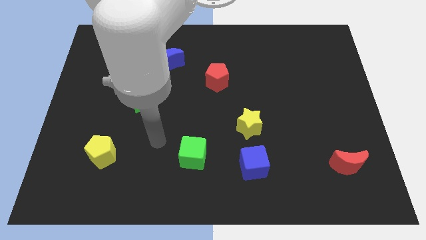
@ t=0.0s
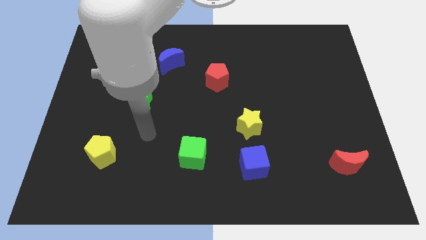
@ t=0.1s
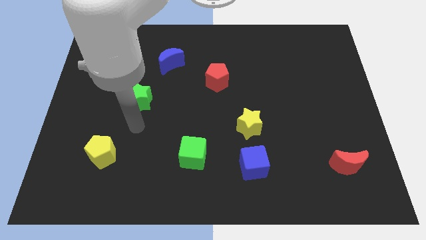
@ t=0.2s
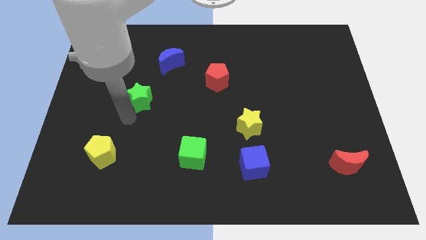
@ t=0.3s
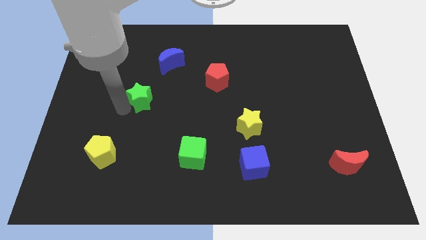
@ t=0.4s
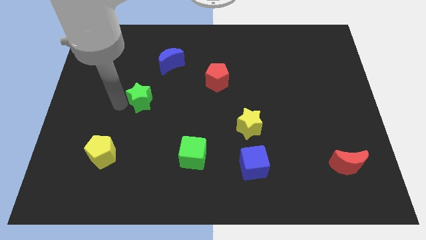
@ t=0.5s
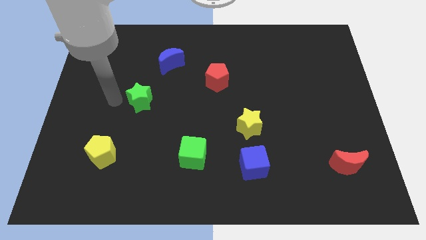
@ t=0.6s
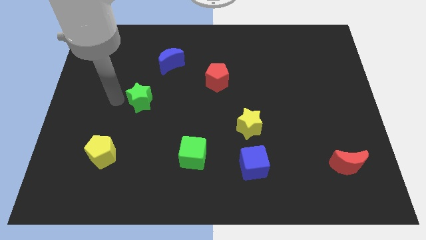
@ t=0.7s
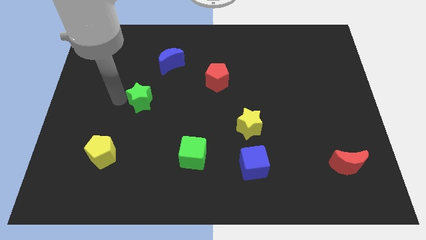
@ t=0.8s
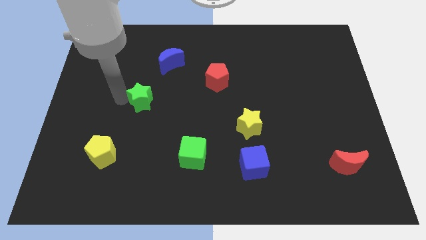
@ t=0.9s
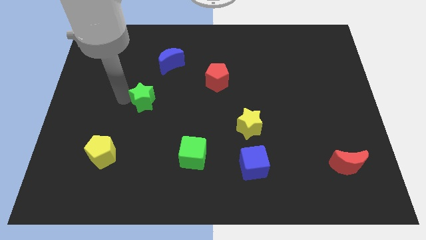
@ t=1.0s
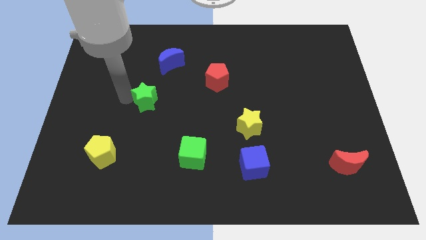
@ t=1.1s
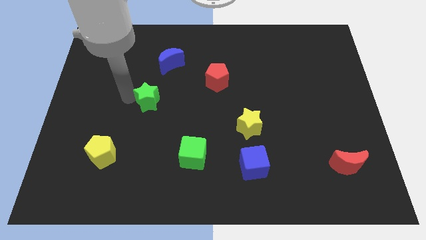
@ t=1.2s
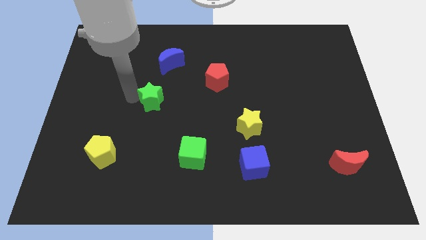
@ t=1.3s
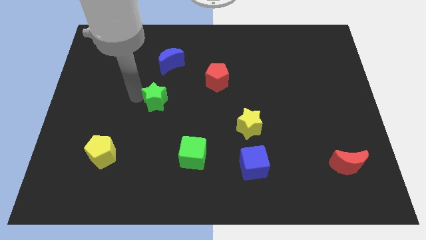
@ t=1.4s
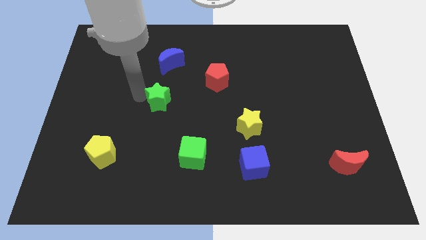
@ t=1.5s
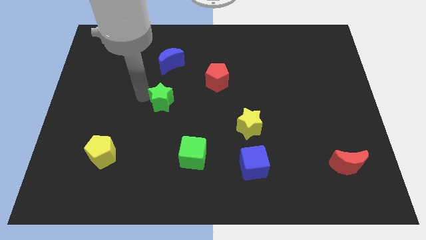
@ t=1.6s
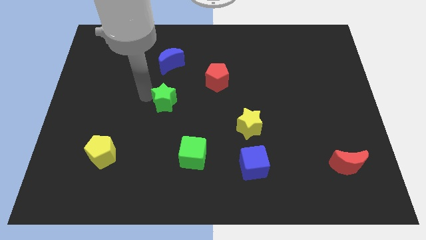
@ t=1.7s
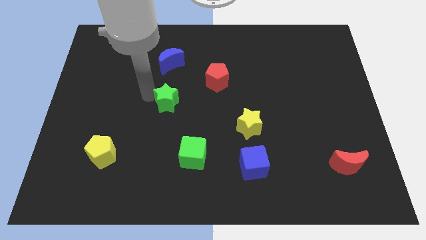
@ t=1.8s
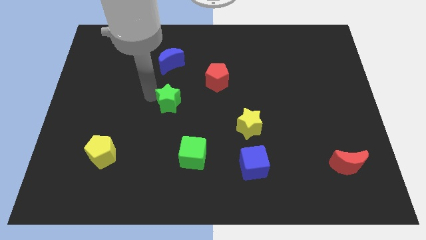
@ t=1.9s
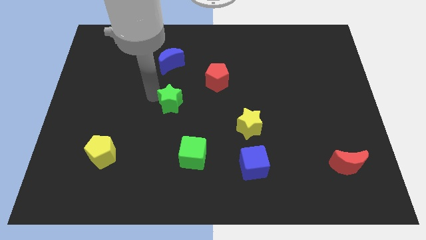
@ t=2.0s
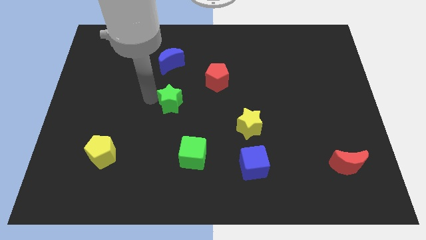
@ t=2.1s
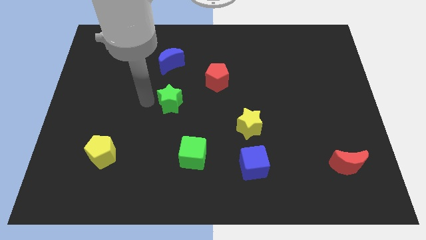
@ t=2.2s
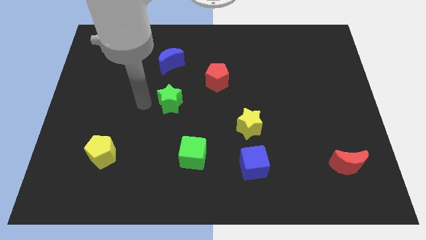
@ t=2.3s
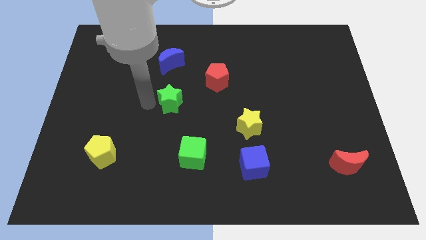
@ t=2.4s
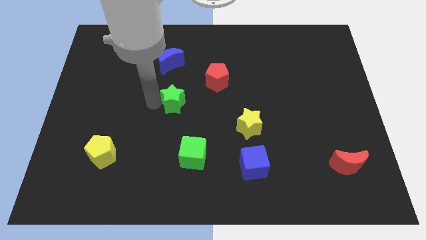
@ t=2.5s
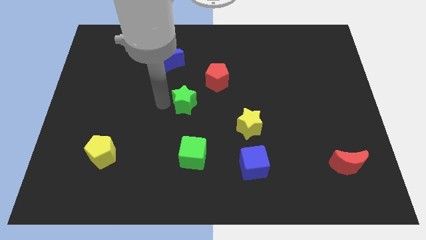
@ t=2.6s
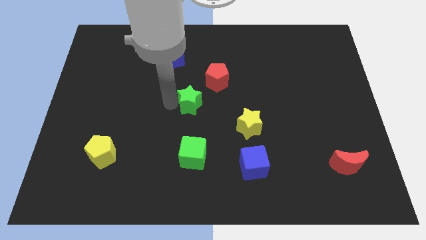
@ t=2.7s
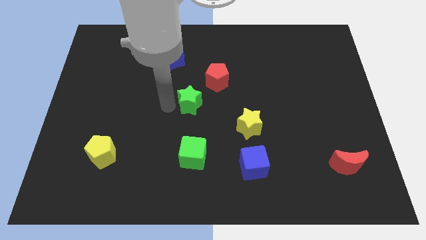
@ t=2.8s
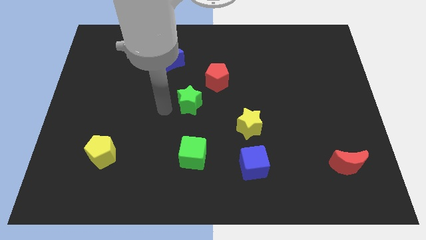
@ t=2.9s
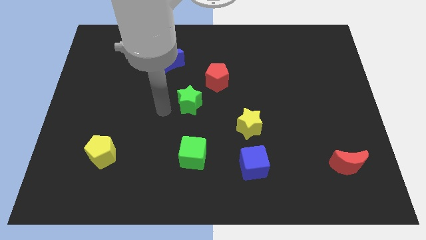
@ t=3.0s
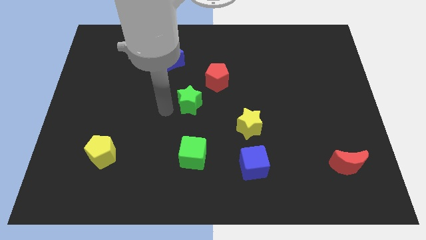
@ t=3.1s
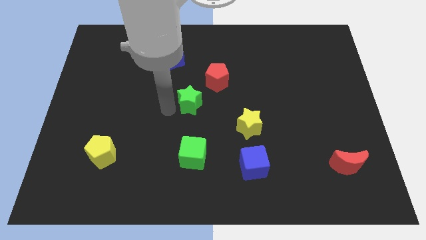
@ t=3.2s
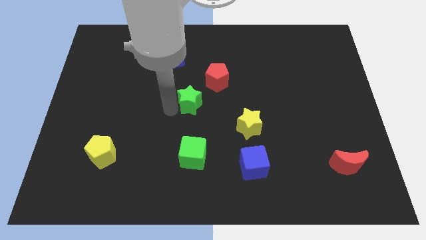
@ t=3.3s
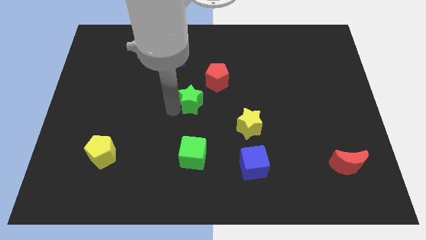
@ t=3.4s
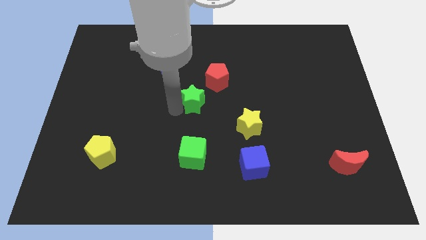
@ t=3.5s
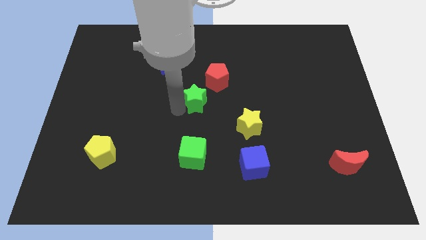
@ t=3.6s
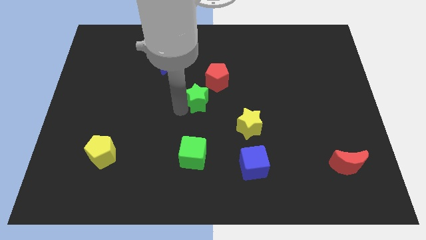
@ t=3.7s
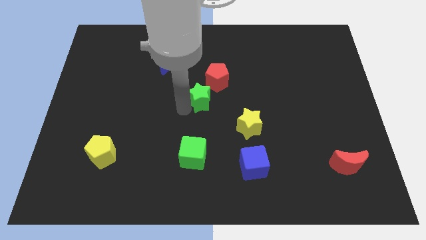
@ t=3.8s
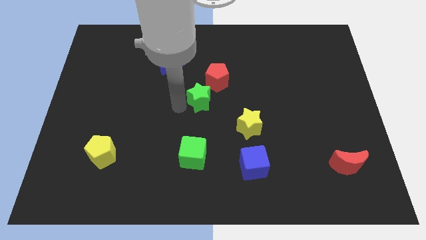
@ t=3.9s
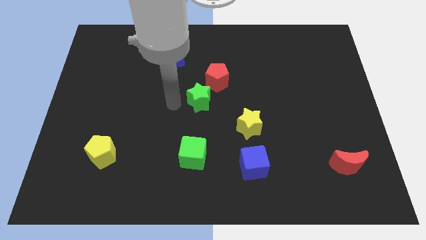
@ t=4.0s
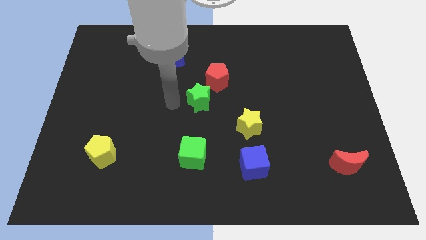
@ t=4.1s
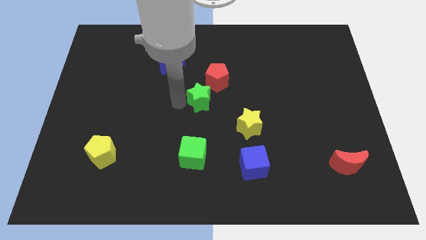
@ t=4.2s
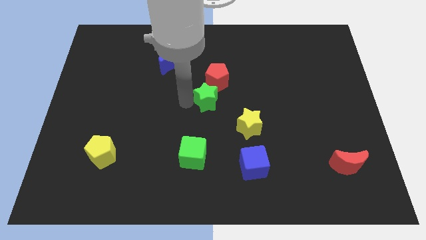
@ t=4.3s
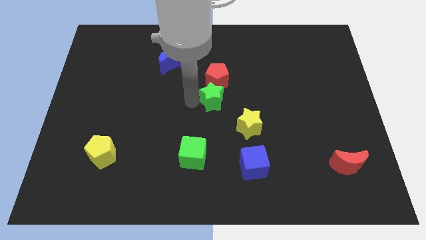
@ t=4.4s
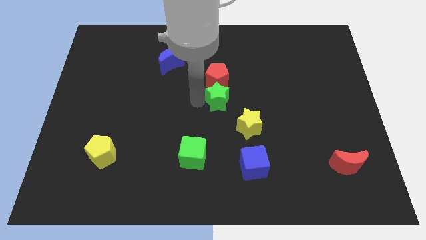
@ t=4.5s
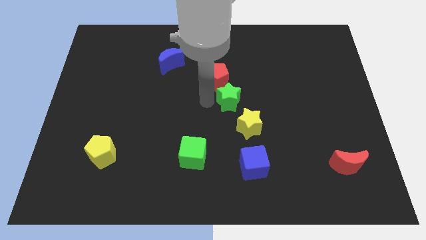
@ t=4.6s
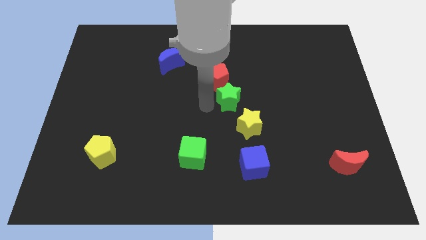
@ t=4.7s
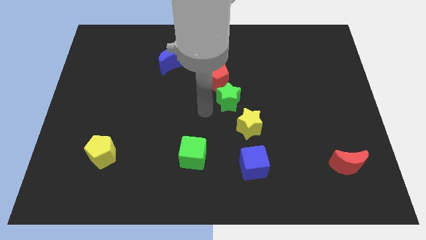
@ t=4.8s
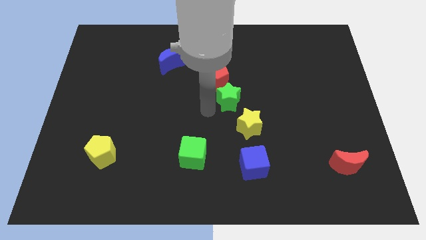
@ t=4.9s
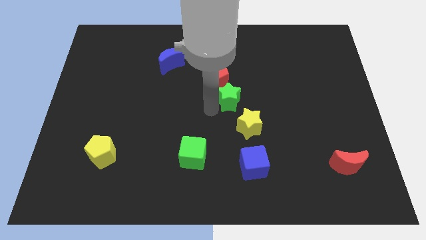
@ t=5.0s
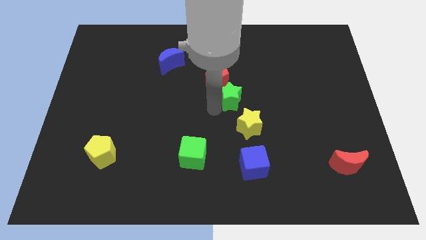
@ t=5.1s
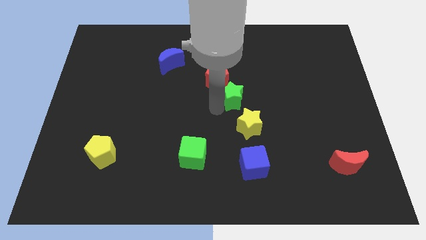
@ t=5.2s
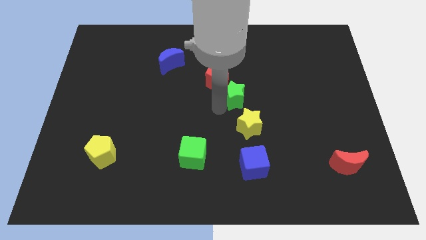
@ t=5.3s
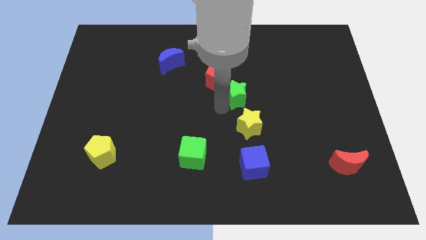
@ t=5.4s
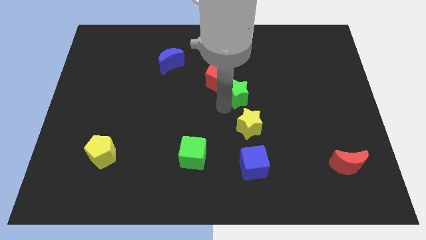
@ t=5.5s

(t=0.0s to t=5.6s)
slide the green star to the right side of the red pentagon

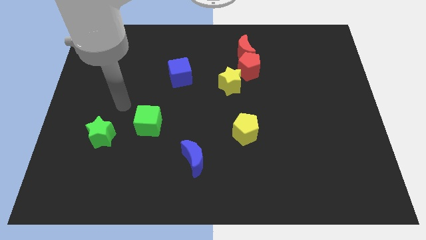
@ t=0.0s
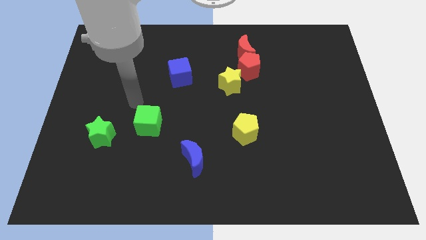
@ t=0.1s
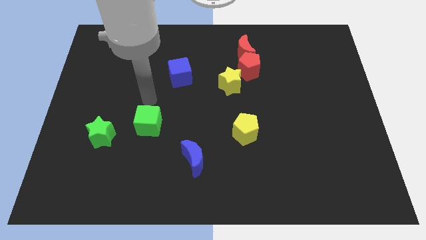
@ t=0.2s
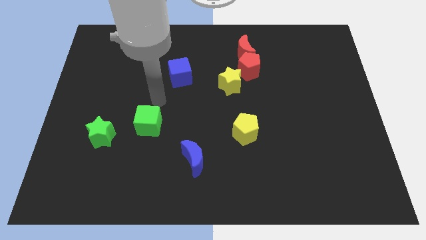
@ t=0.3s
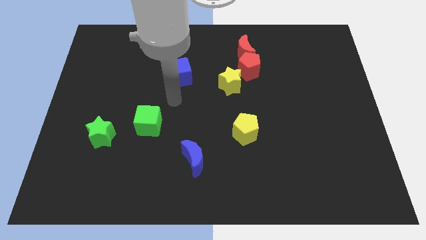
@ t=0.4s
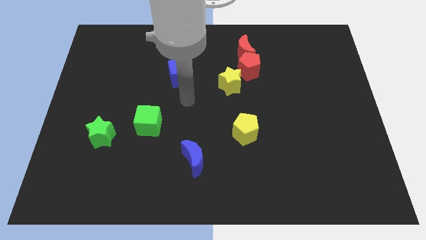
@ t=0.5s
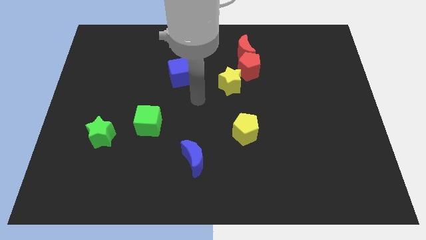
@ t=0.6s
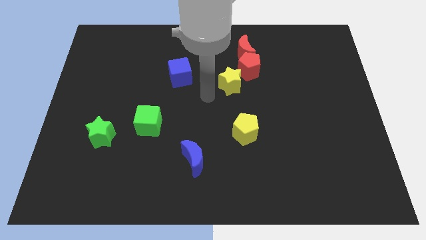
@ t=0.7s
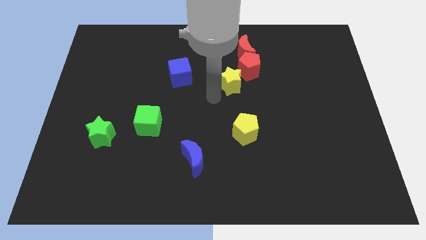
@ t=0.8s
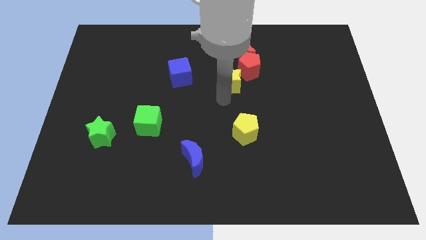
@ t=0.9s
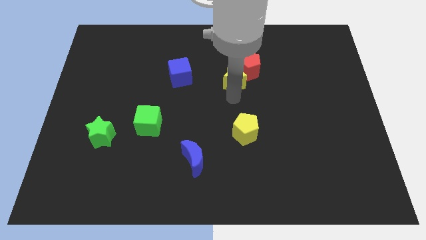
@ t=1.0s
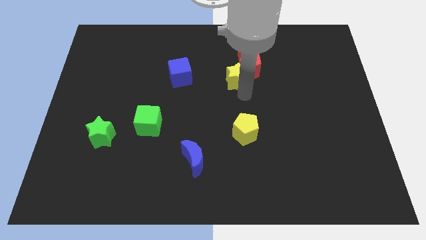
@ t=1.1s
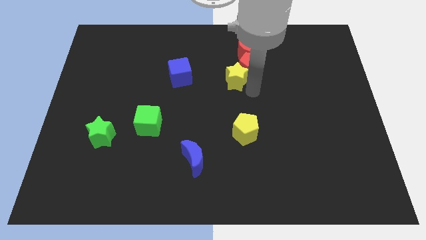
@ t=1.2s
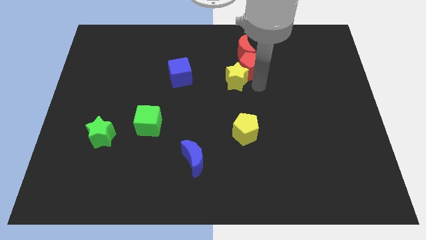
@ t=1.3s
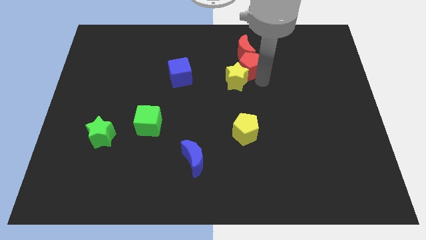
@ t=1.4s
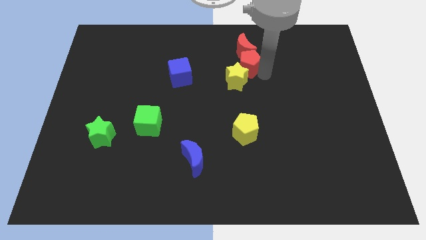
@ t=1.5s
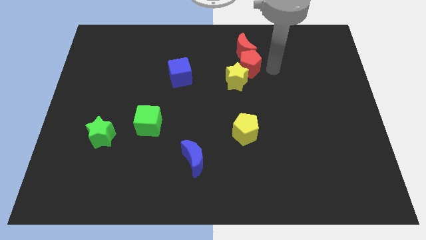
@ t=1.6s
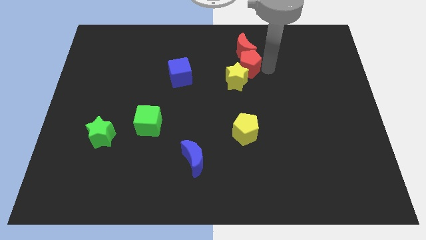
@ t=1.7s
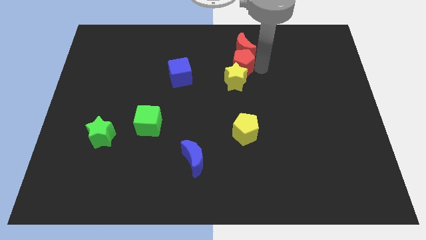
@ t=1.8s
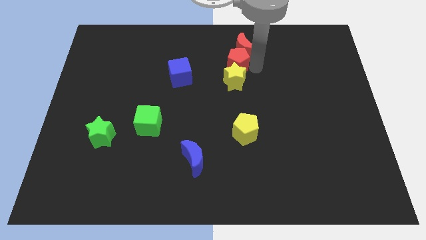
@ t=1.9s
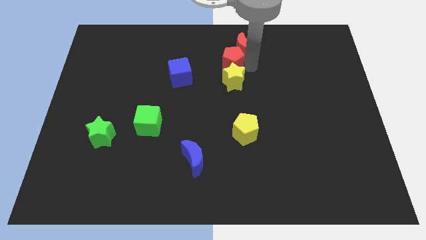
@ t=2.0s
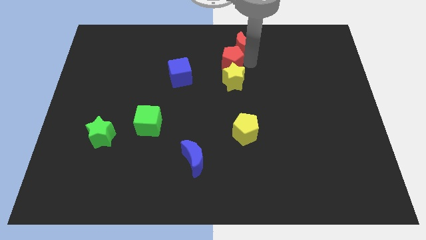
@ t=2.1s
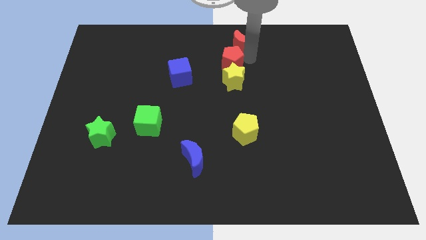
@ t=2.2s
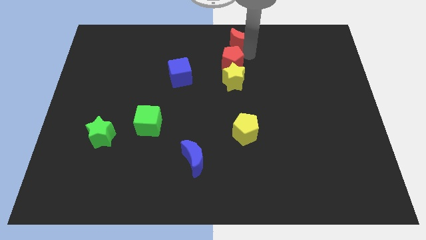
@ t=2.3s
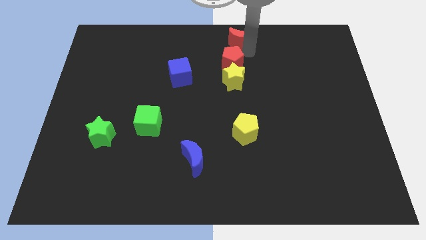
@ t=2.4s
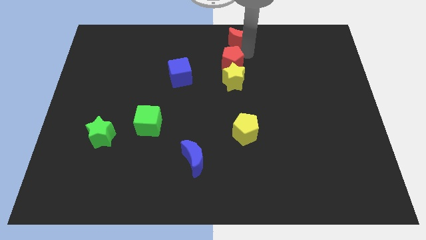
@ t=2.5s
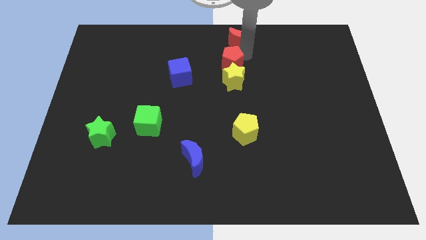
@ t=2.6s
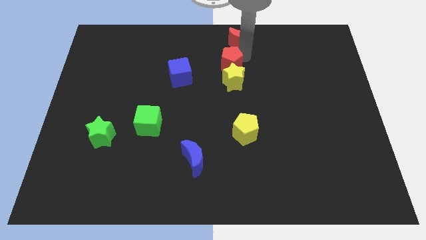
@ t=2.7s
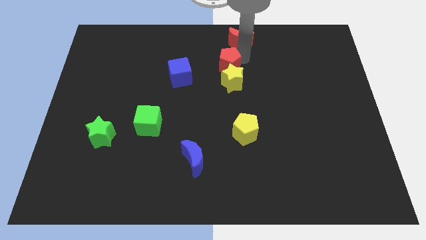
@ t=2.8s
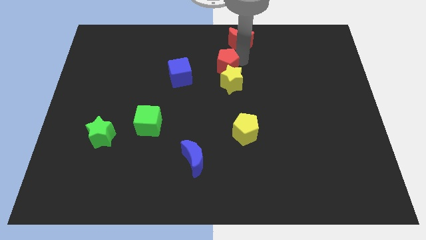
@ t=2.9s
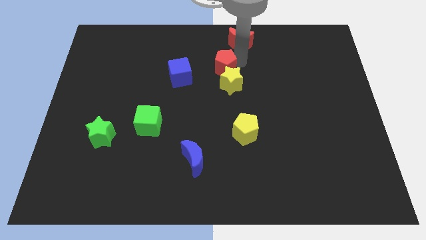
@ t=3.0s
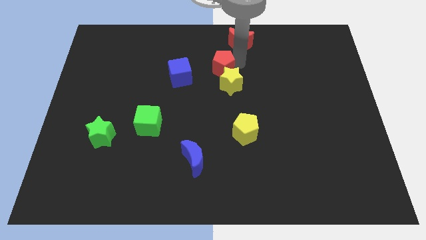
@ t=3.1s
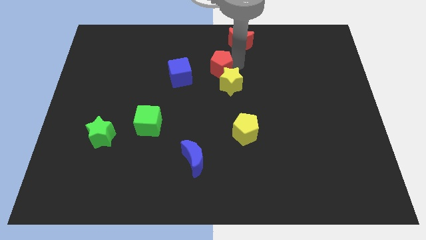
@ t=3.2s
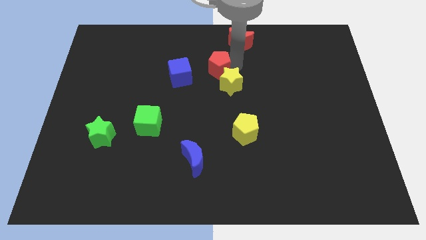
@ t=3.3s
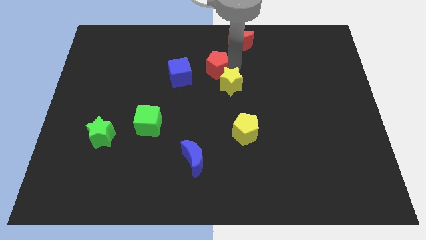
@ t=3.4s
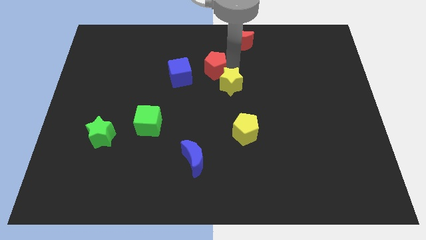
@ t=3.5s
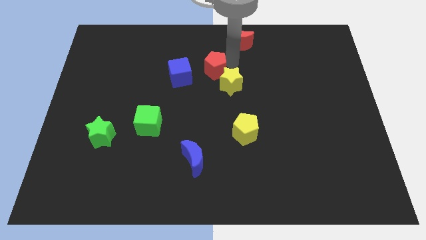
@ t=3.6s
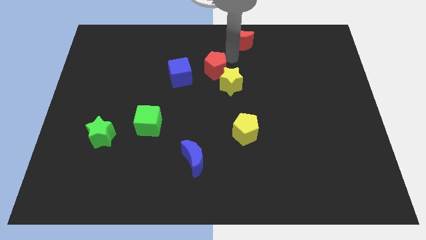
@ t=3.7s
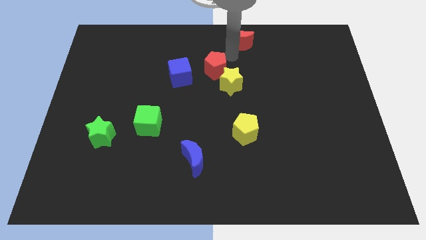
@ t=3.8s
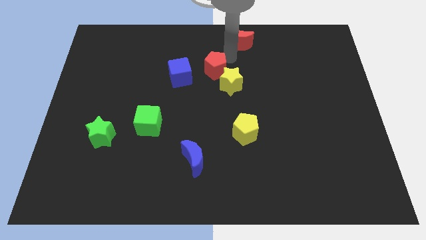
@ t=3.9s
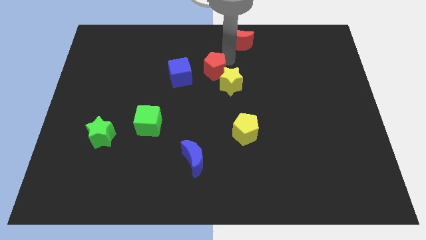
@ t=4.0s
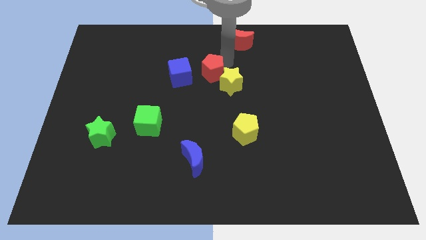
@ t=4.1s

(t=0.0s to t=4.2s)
put the red pentagon to the left side of the yellow star
